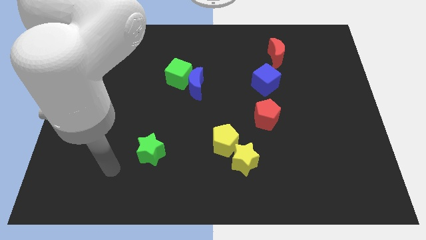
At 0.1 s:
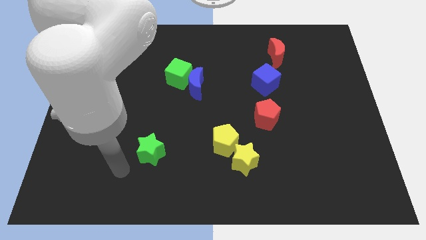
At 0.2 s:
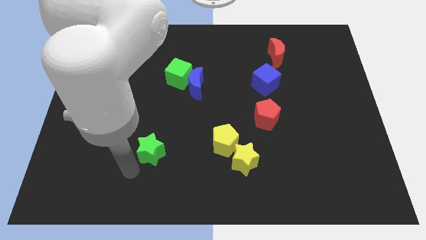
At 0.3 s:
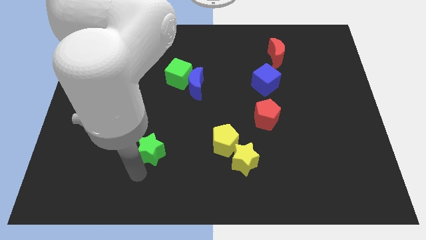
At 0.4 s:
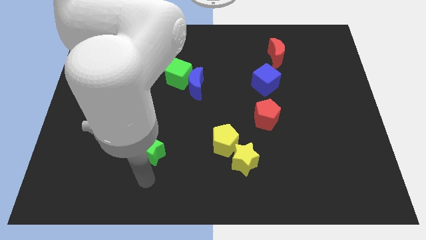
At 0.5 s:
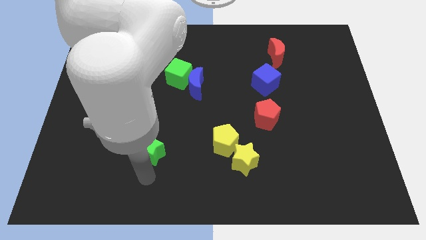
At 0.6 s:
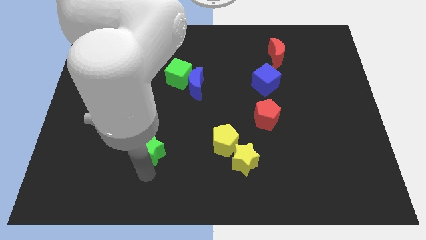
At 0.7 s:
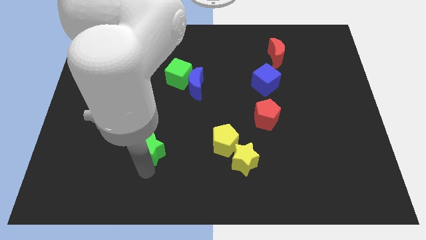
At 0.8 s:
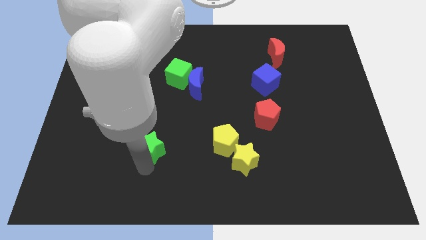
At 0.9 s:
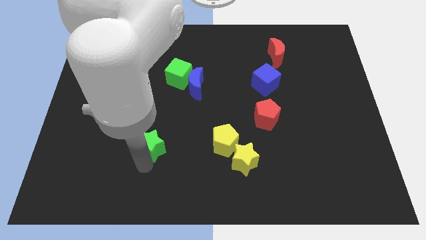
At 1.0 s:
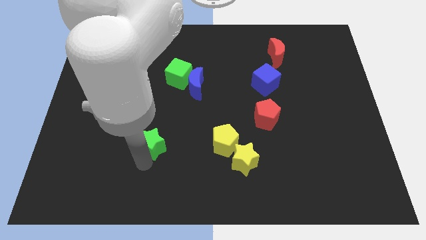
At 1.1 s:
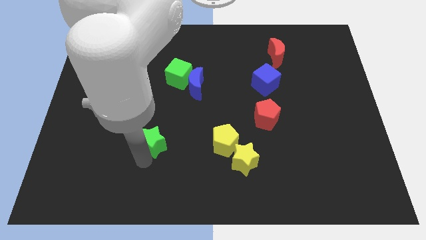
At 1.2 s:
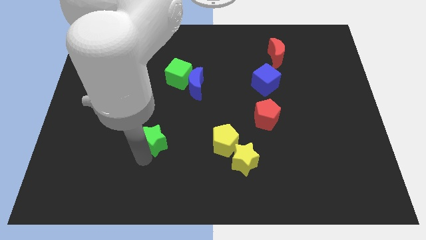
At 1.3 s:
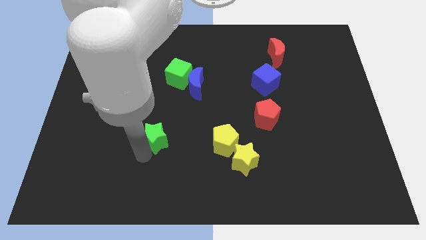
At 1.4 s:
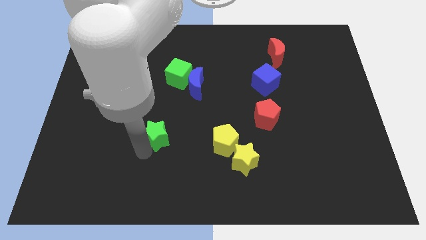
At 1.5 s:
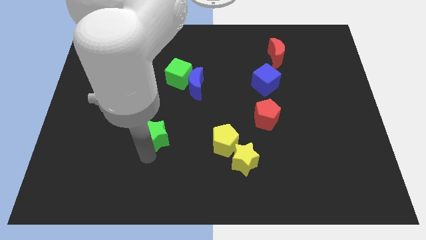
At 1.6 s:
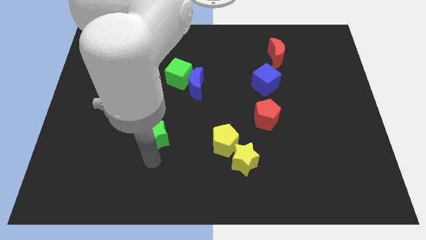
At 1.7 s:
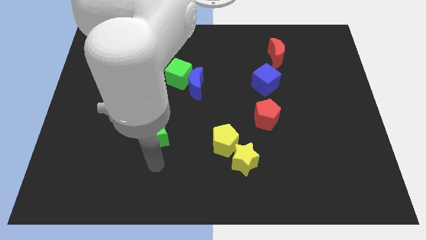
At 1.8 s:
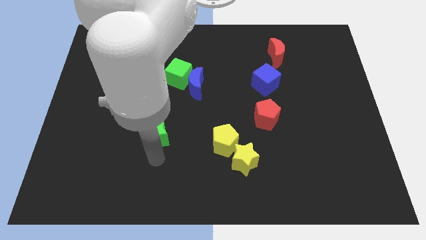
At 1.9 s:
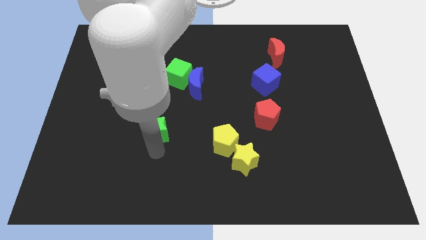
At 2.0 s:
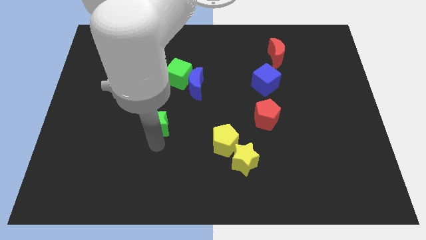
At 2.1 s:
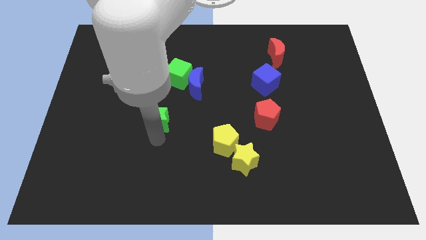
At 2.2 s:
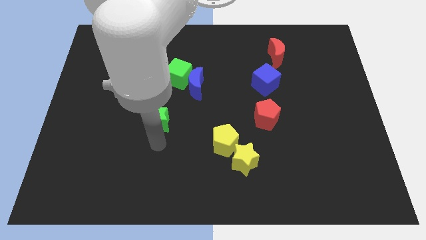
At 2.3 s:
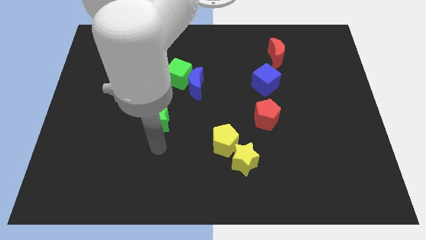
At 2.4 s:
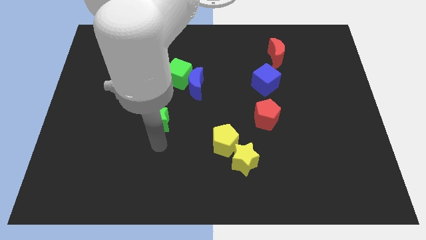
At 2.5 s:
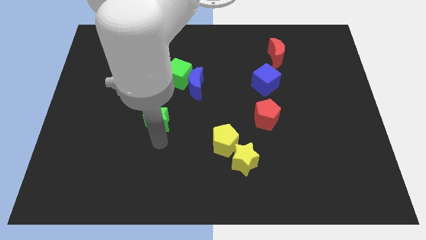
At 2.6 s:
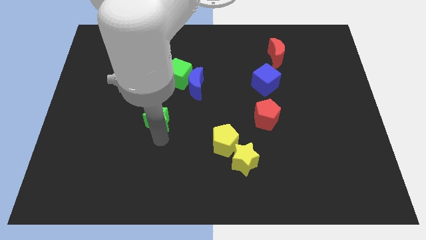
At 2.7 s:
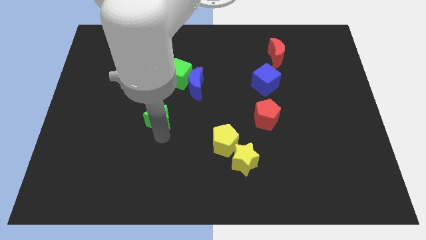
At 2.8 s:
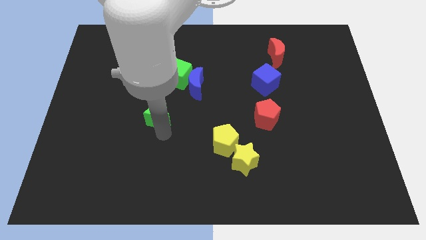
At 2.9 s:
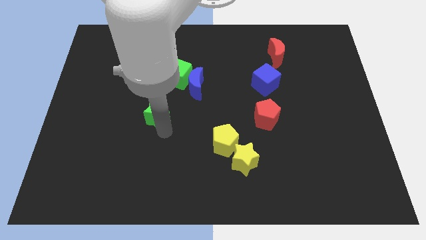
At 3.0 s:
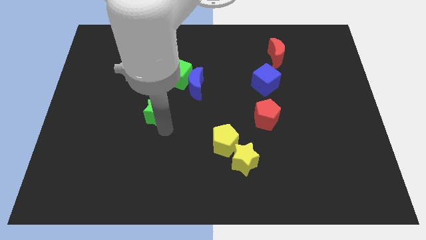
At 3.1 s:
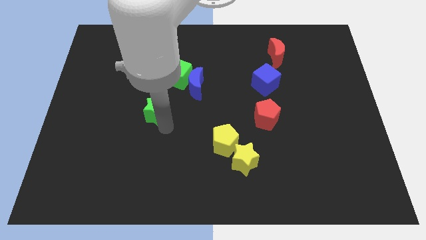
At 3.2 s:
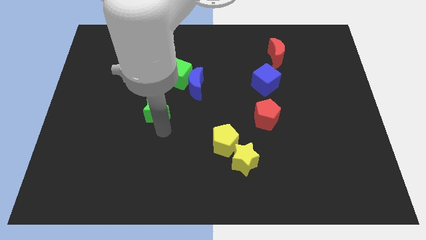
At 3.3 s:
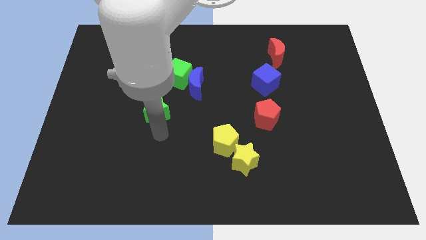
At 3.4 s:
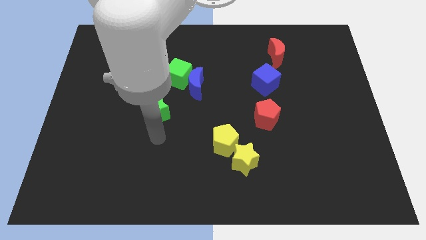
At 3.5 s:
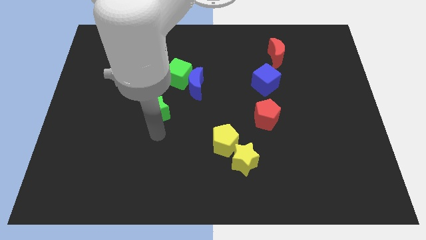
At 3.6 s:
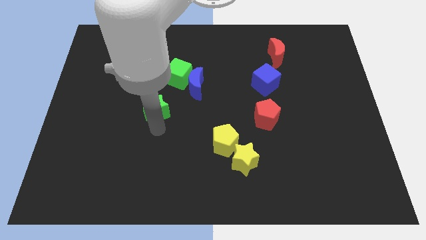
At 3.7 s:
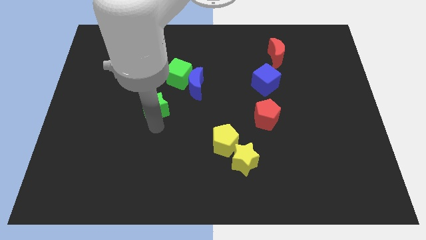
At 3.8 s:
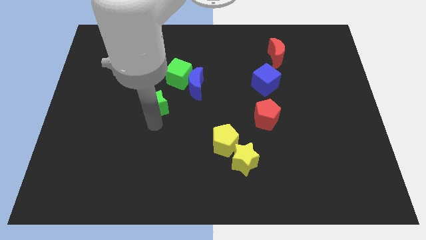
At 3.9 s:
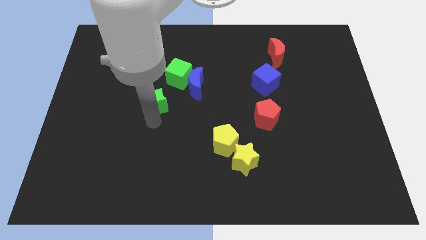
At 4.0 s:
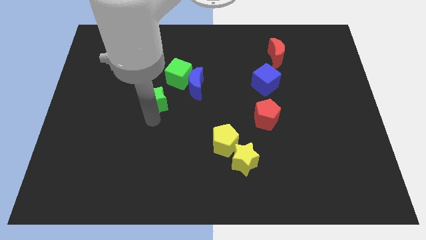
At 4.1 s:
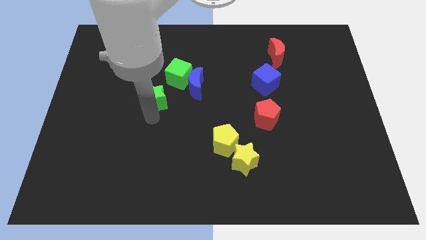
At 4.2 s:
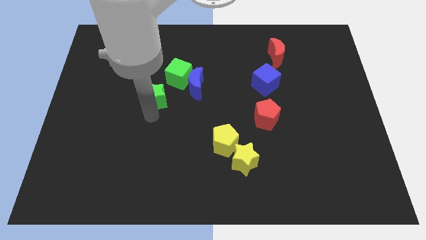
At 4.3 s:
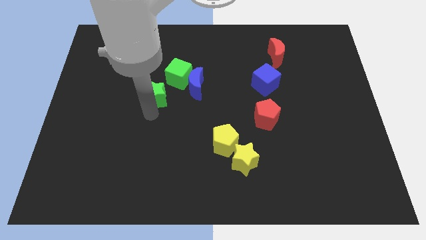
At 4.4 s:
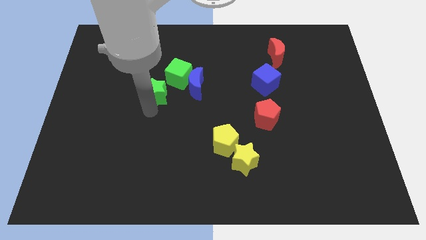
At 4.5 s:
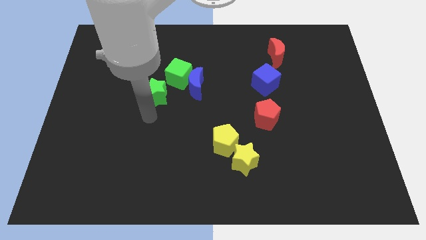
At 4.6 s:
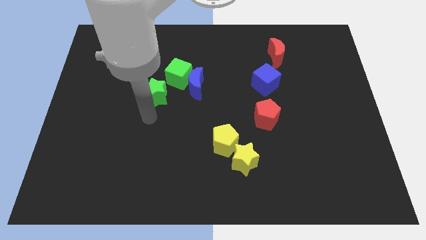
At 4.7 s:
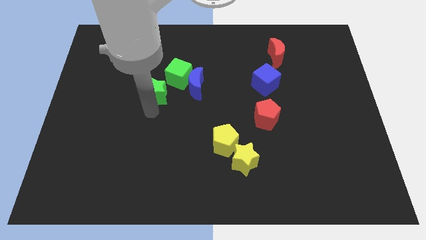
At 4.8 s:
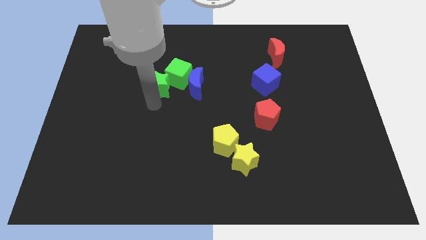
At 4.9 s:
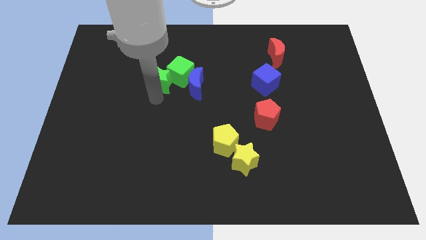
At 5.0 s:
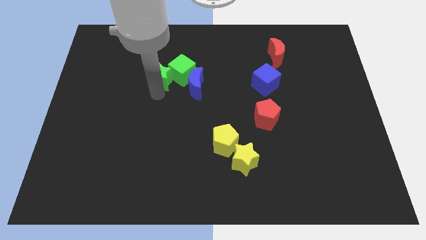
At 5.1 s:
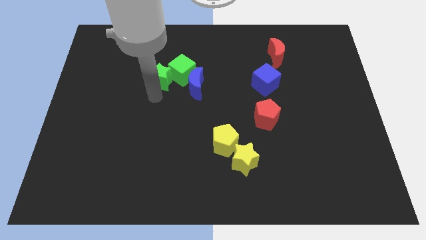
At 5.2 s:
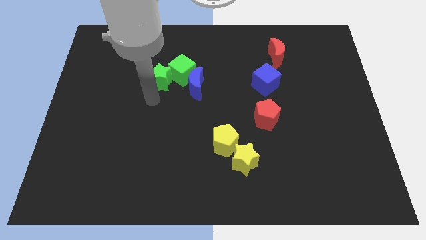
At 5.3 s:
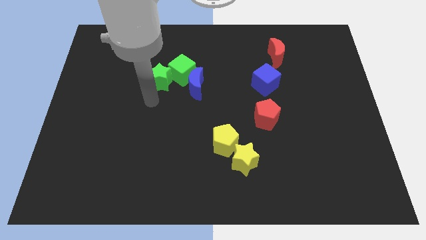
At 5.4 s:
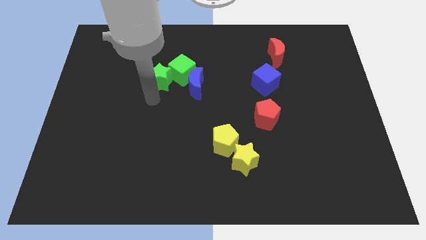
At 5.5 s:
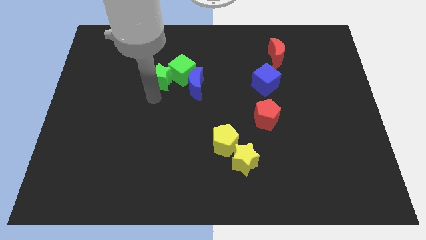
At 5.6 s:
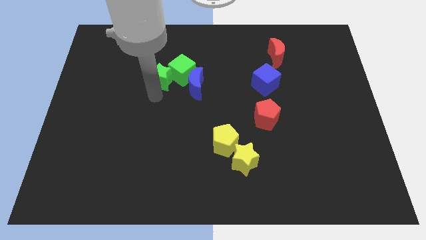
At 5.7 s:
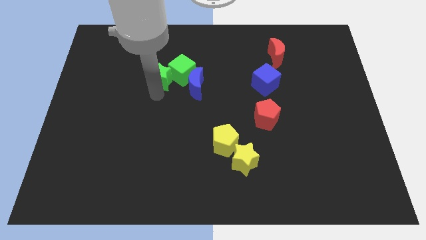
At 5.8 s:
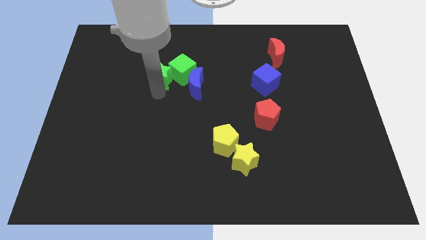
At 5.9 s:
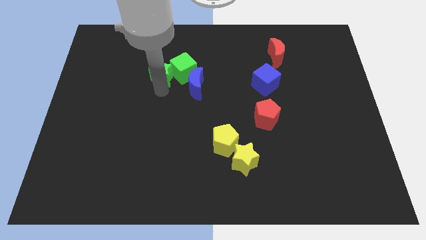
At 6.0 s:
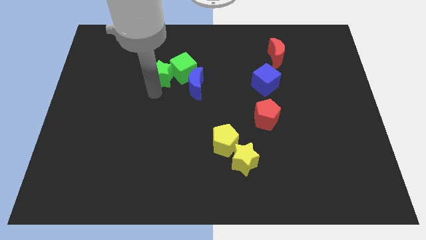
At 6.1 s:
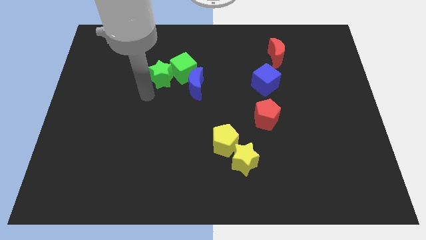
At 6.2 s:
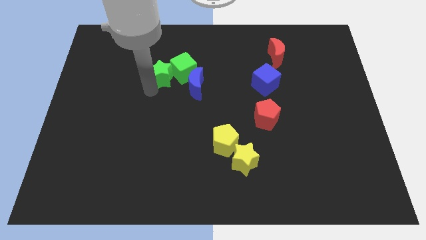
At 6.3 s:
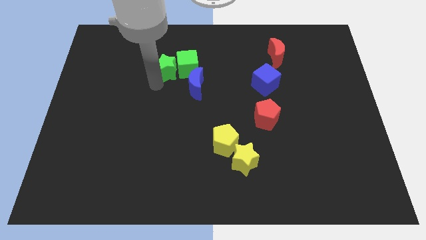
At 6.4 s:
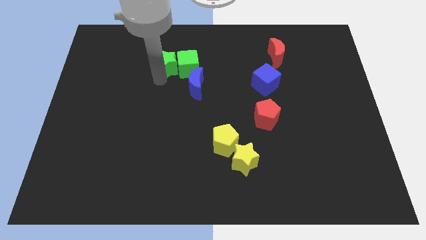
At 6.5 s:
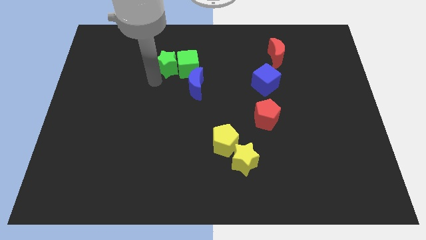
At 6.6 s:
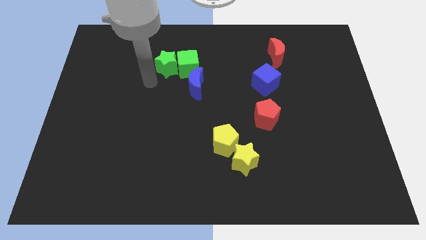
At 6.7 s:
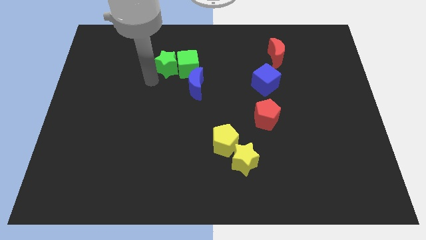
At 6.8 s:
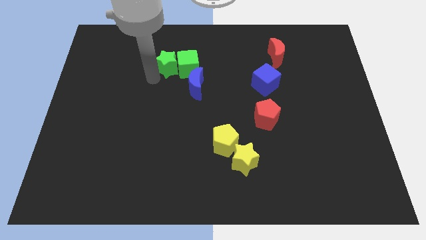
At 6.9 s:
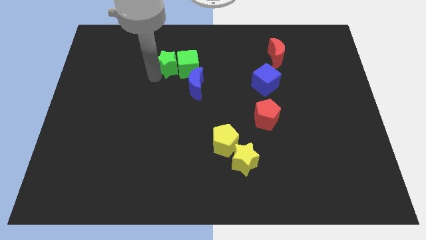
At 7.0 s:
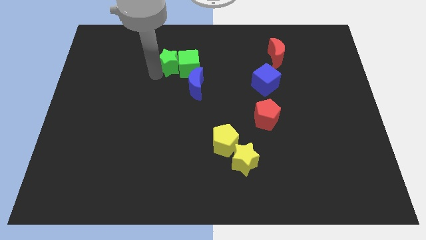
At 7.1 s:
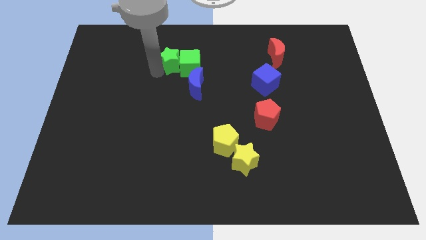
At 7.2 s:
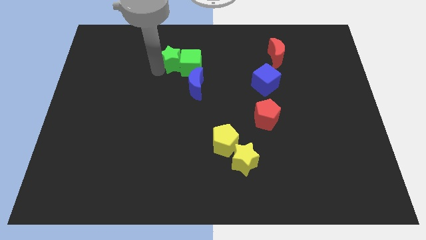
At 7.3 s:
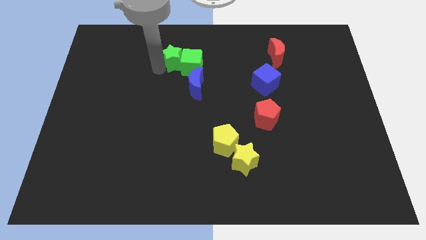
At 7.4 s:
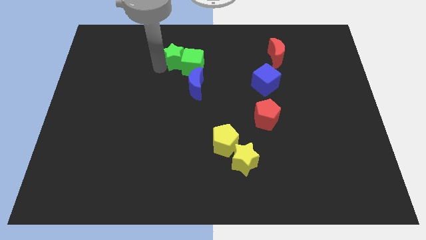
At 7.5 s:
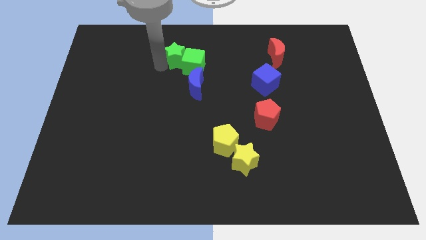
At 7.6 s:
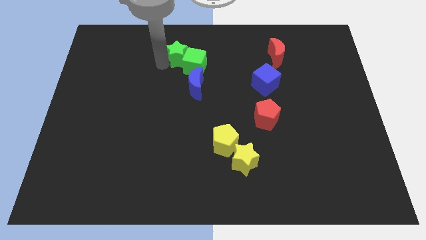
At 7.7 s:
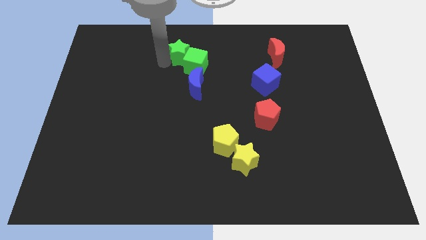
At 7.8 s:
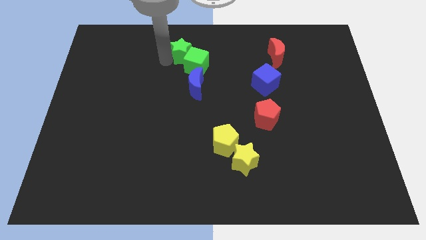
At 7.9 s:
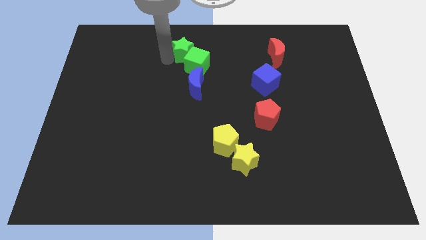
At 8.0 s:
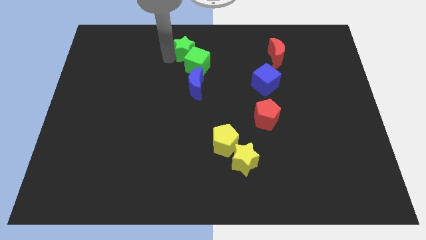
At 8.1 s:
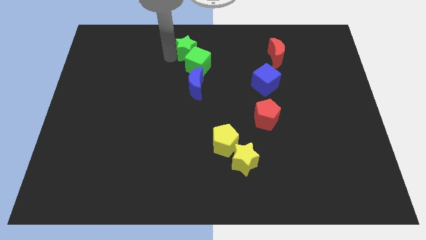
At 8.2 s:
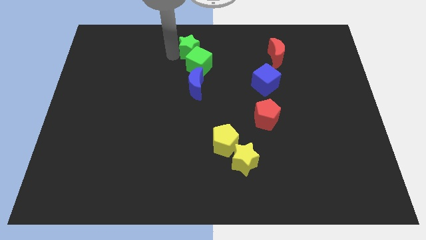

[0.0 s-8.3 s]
push the green star to the towards your base

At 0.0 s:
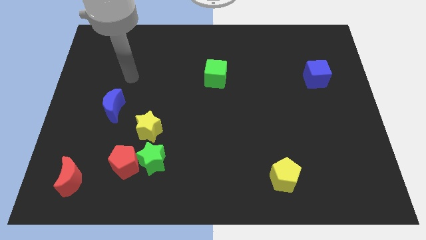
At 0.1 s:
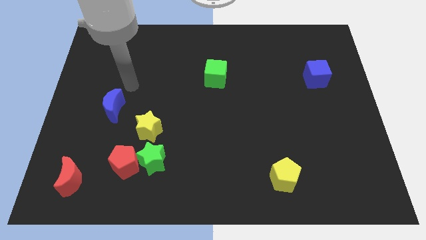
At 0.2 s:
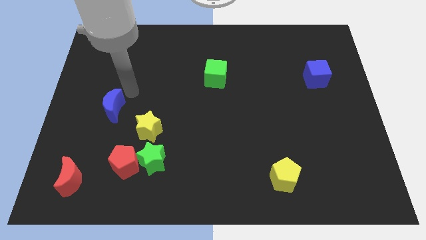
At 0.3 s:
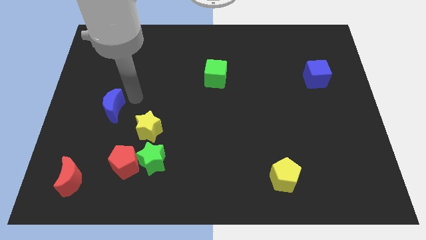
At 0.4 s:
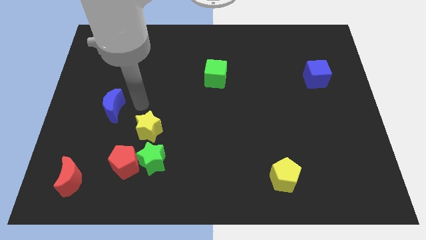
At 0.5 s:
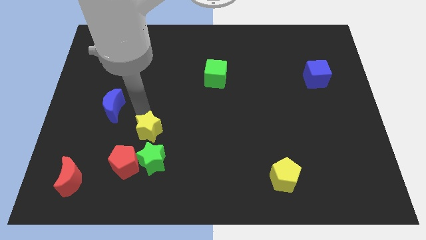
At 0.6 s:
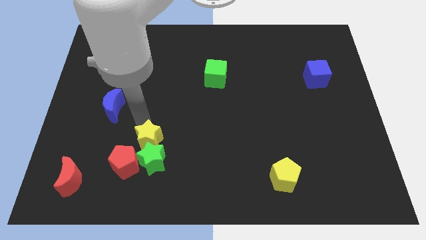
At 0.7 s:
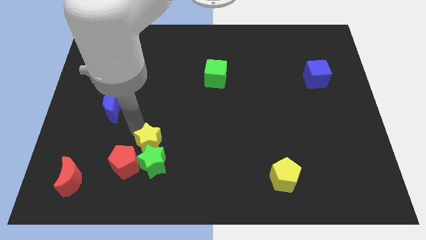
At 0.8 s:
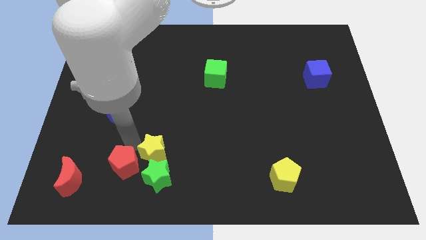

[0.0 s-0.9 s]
move the green star to the bottom
